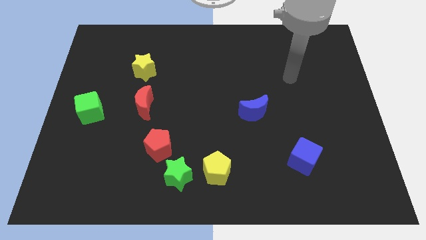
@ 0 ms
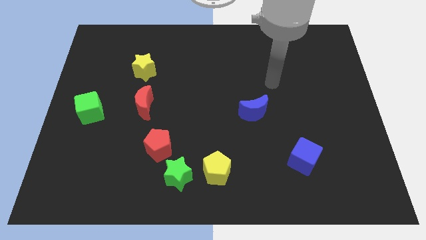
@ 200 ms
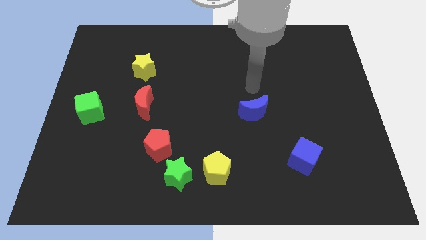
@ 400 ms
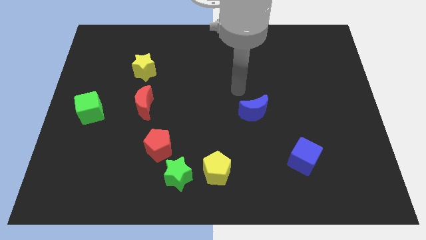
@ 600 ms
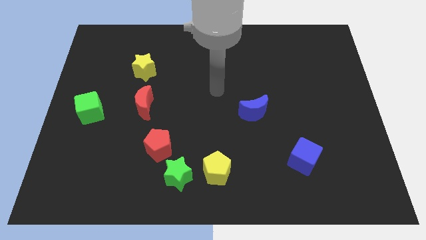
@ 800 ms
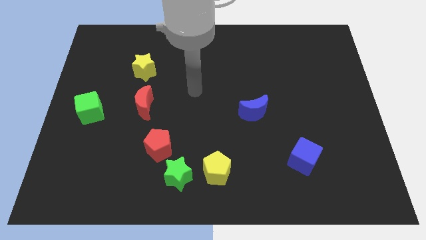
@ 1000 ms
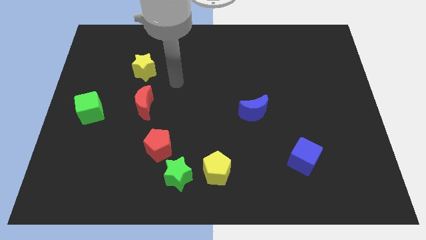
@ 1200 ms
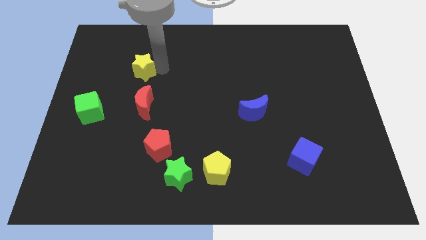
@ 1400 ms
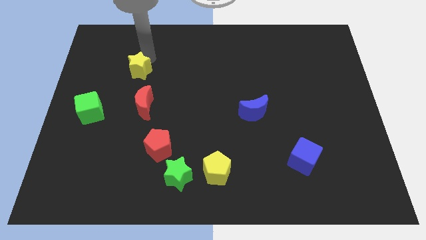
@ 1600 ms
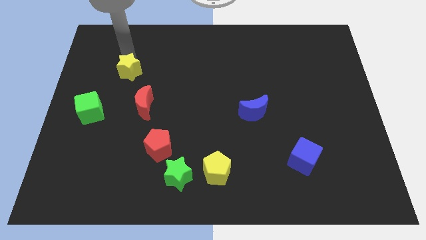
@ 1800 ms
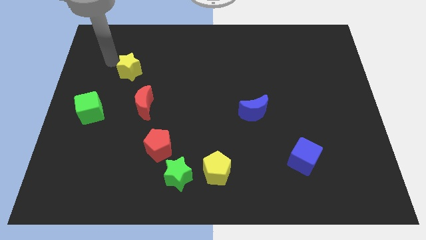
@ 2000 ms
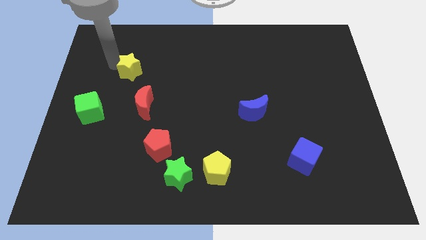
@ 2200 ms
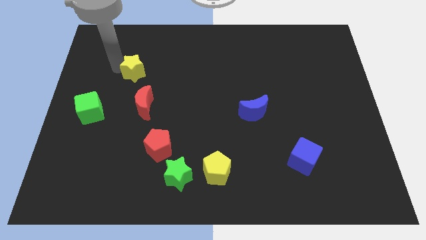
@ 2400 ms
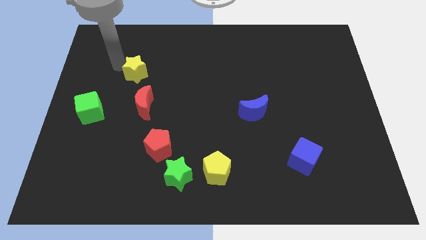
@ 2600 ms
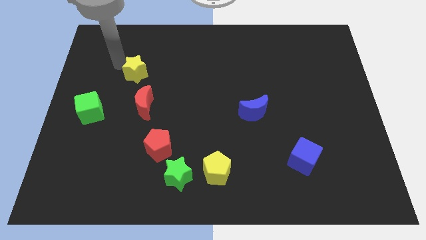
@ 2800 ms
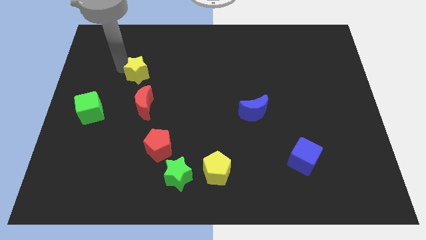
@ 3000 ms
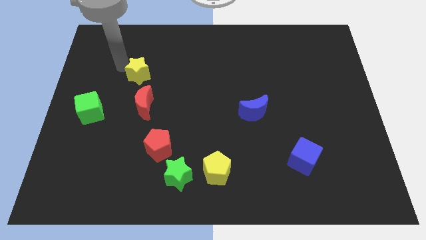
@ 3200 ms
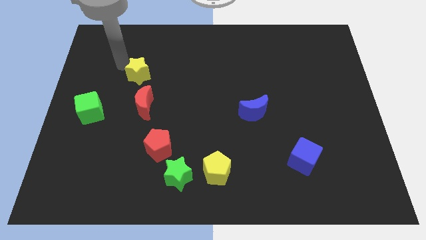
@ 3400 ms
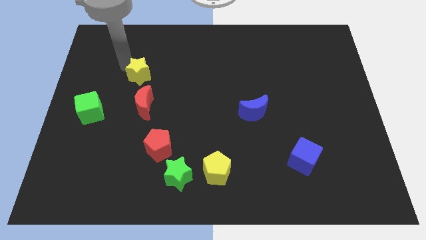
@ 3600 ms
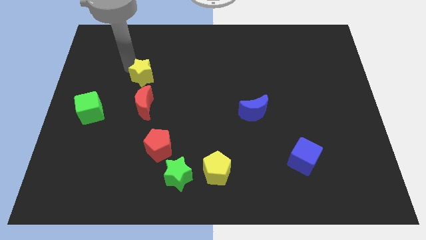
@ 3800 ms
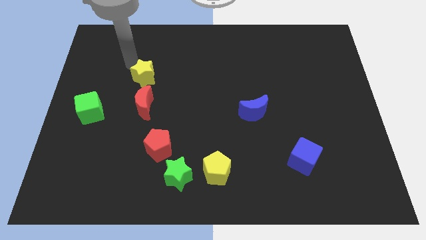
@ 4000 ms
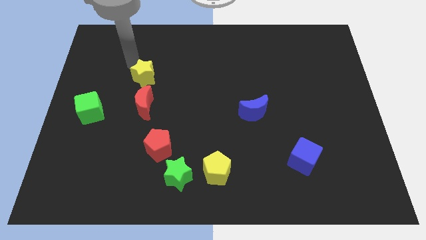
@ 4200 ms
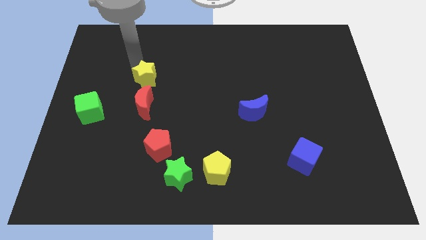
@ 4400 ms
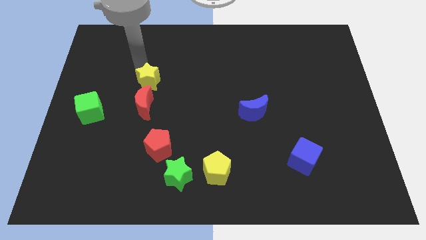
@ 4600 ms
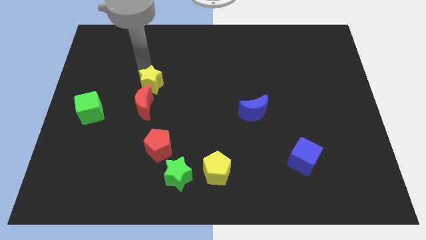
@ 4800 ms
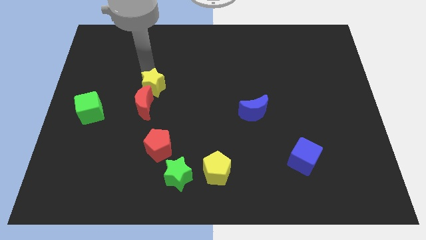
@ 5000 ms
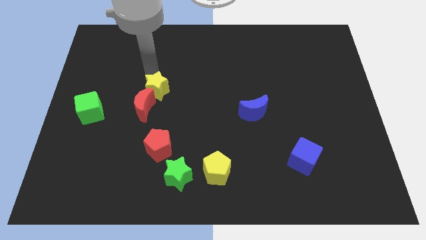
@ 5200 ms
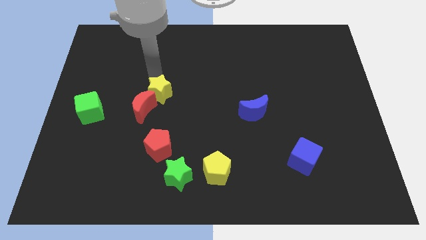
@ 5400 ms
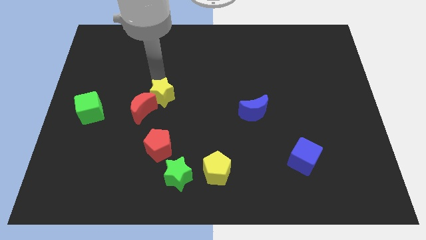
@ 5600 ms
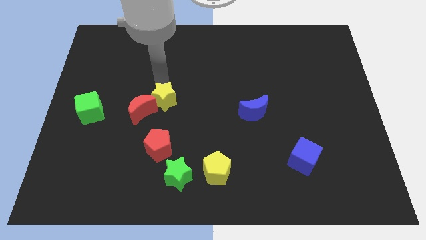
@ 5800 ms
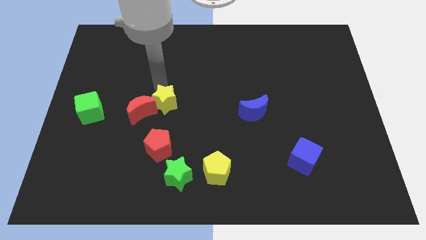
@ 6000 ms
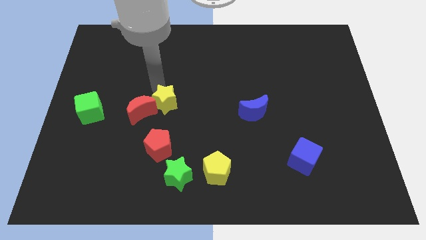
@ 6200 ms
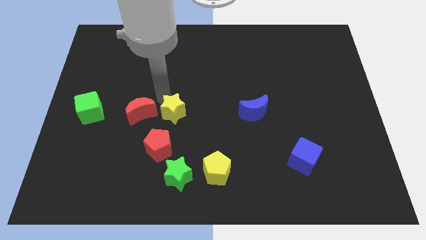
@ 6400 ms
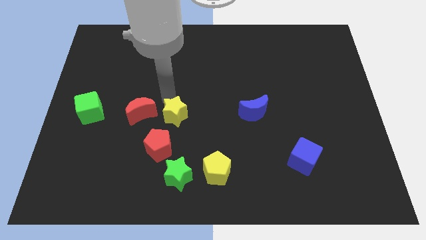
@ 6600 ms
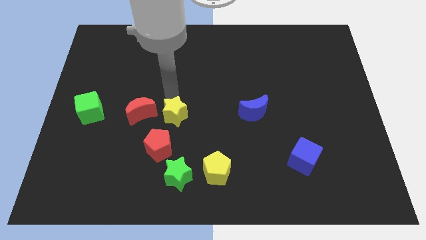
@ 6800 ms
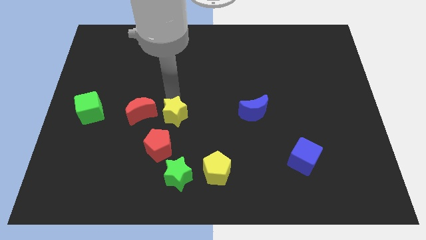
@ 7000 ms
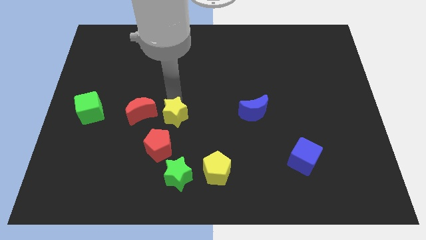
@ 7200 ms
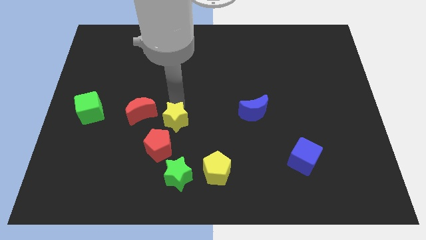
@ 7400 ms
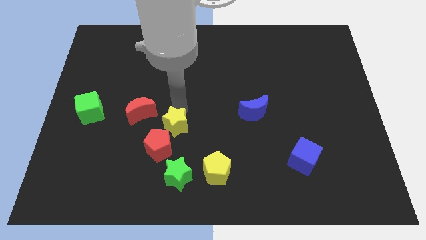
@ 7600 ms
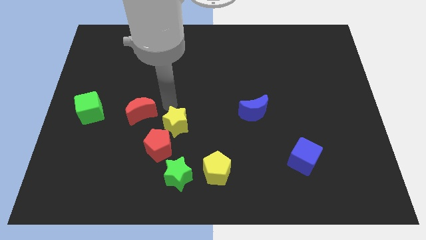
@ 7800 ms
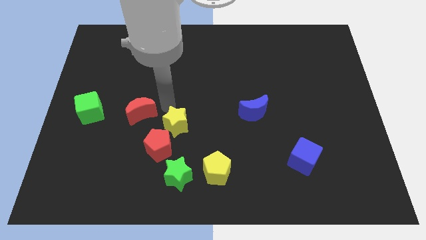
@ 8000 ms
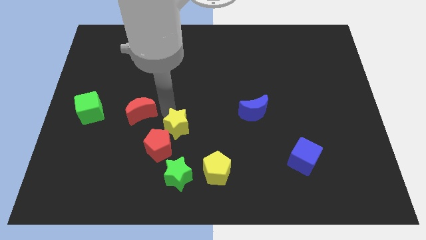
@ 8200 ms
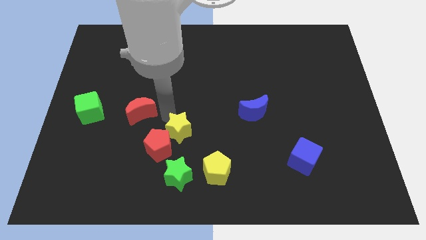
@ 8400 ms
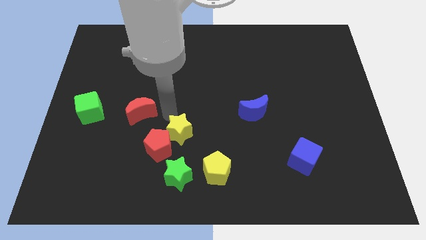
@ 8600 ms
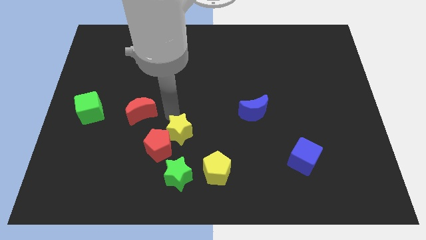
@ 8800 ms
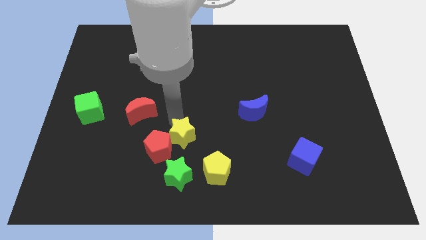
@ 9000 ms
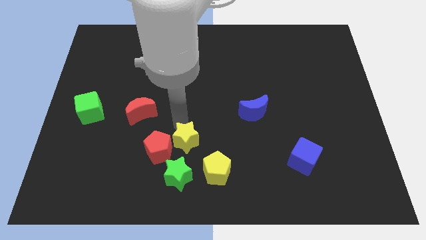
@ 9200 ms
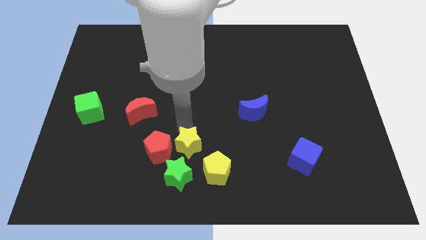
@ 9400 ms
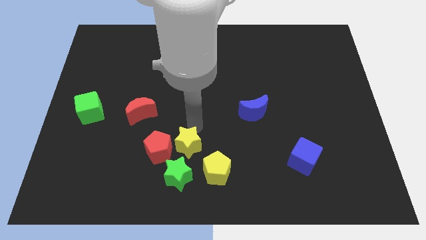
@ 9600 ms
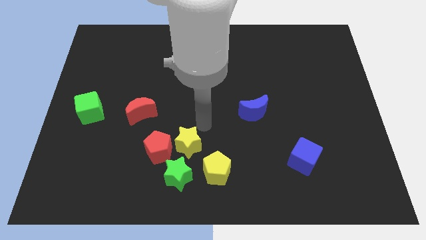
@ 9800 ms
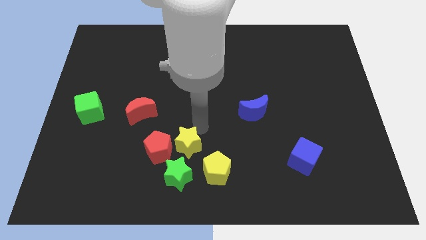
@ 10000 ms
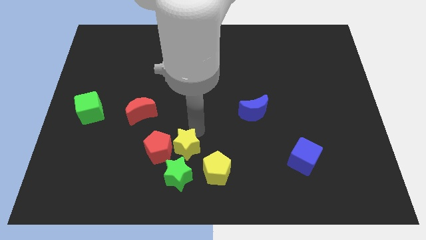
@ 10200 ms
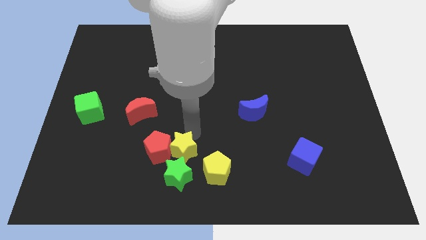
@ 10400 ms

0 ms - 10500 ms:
slide the yellow star next to the green star

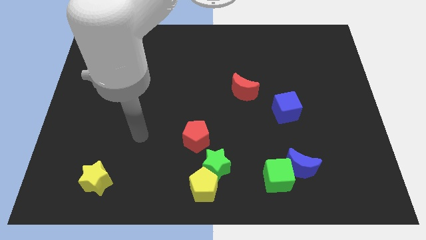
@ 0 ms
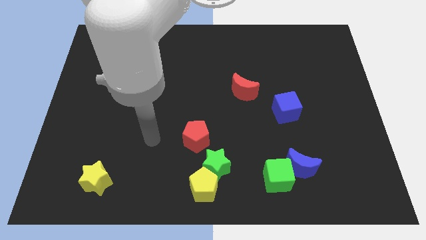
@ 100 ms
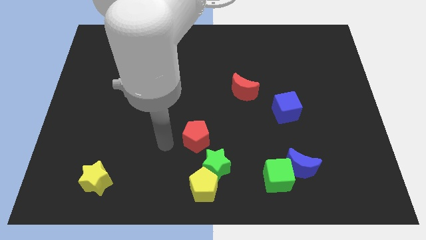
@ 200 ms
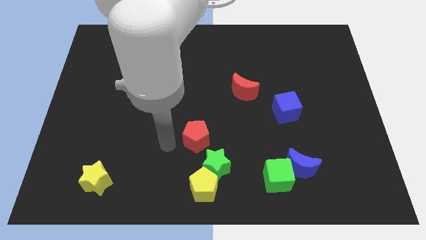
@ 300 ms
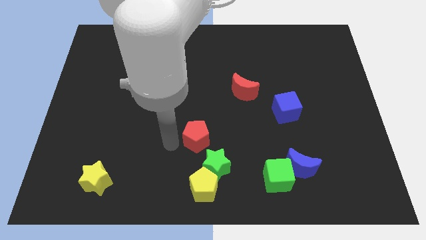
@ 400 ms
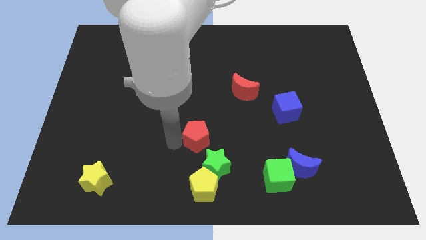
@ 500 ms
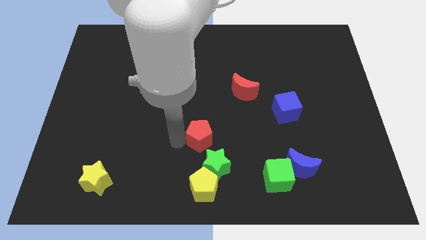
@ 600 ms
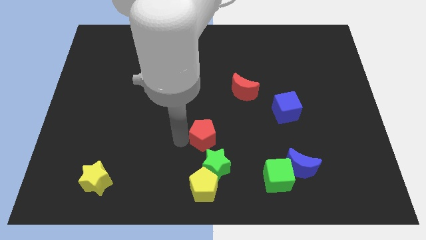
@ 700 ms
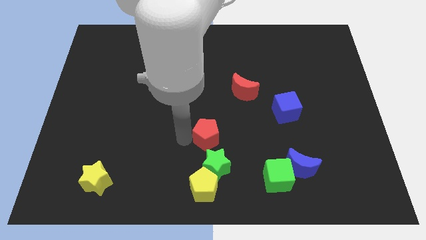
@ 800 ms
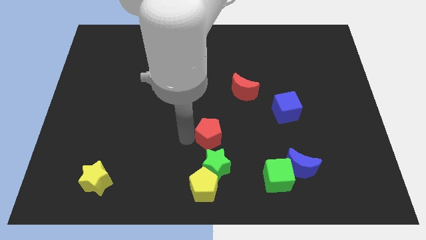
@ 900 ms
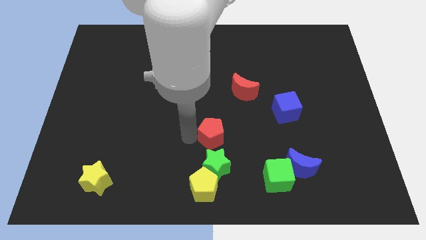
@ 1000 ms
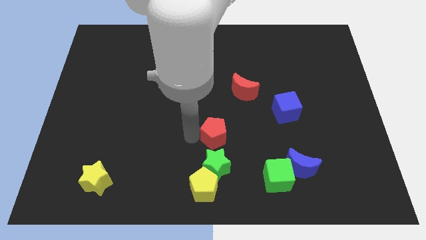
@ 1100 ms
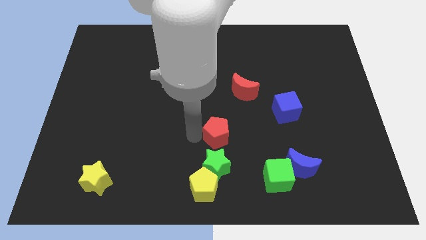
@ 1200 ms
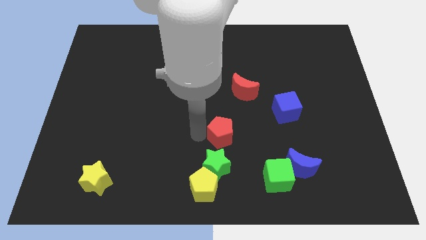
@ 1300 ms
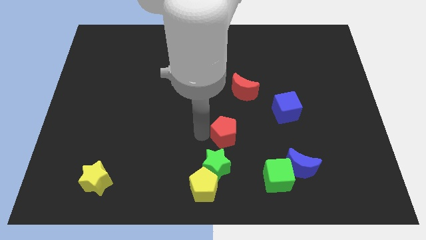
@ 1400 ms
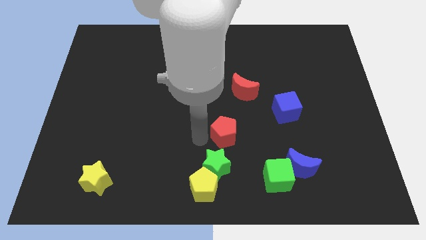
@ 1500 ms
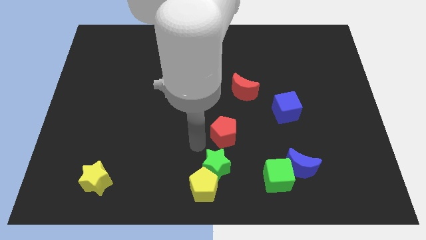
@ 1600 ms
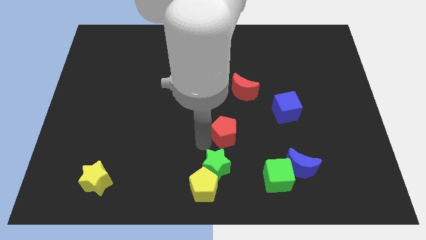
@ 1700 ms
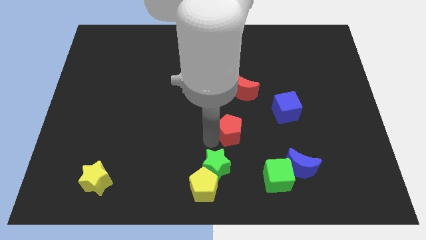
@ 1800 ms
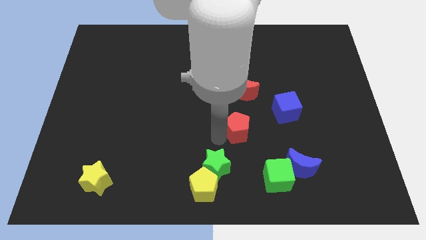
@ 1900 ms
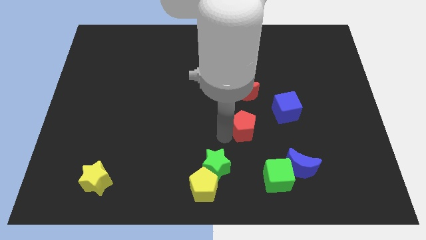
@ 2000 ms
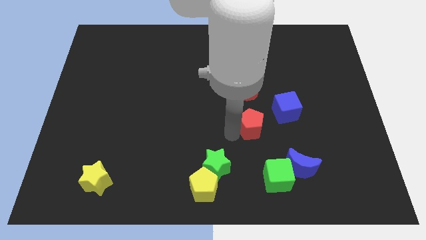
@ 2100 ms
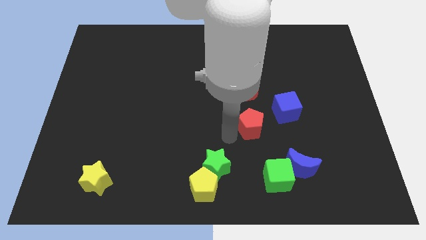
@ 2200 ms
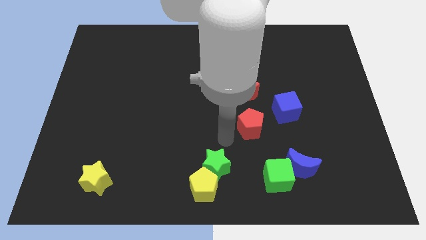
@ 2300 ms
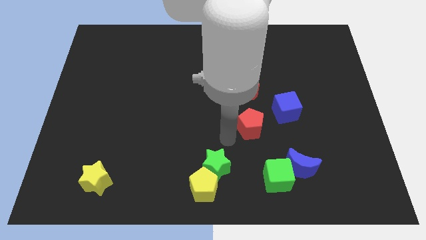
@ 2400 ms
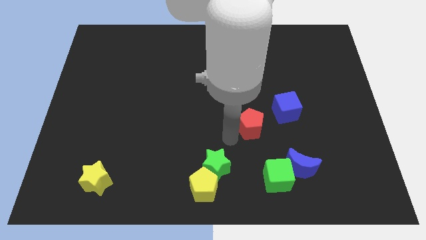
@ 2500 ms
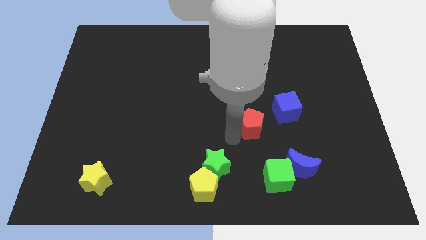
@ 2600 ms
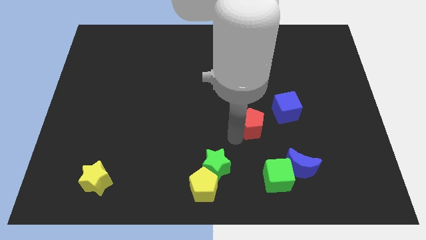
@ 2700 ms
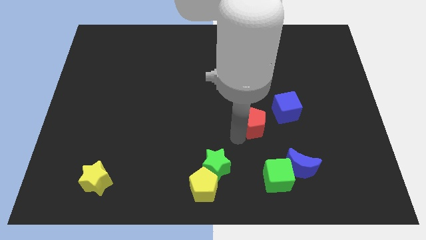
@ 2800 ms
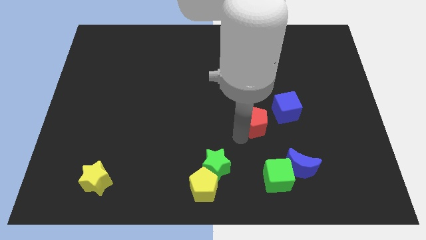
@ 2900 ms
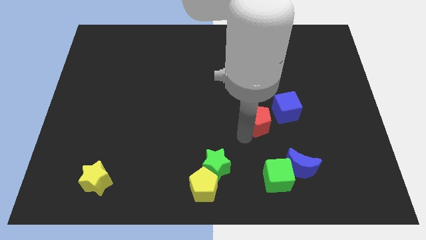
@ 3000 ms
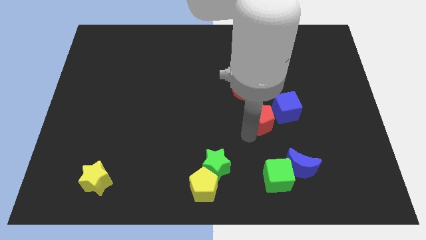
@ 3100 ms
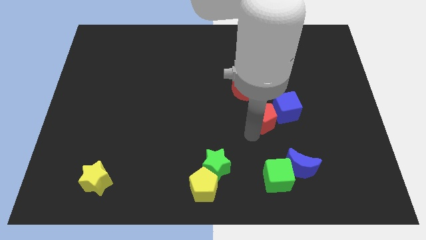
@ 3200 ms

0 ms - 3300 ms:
push the red pentagon to the blue cube
